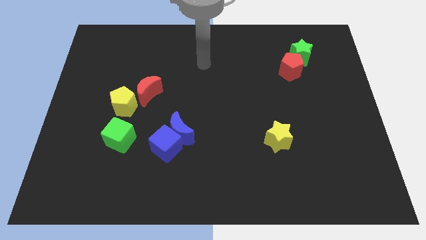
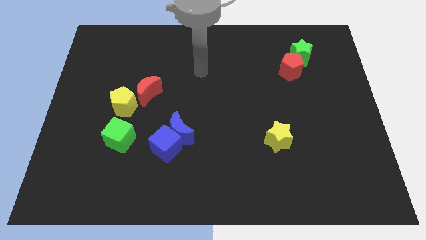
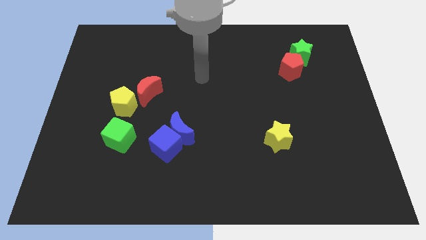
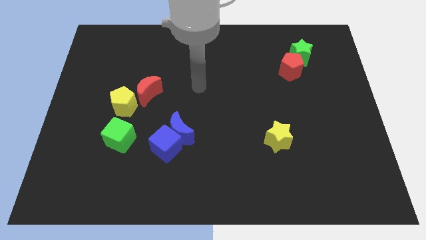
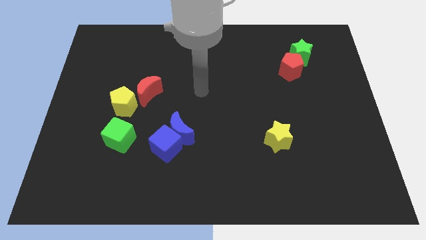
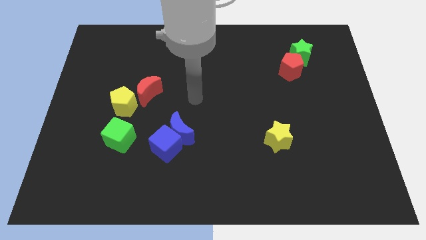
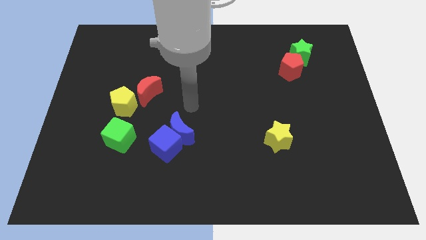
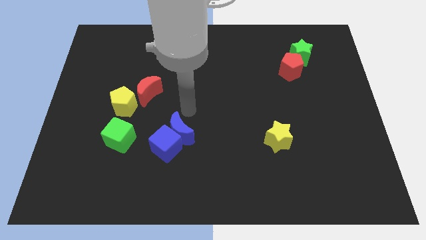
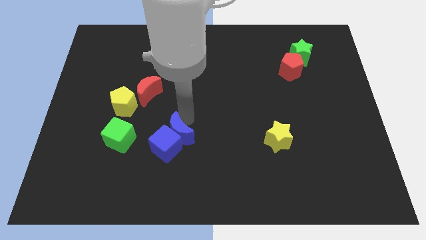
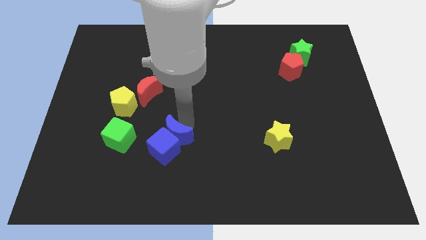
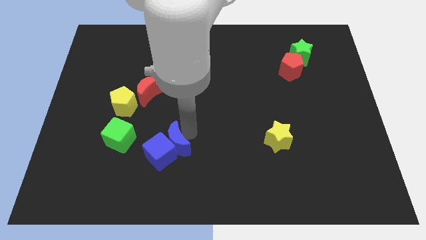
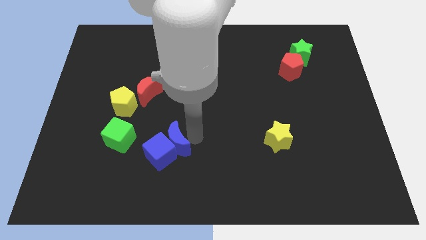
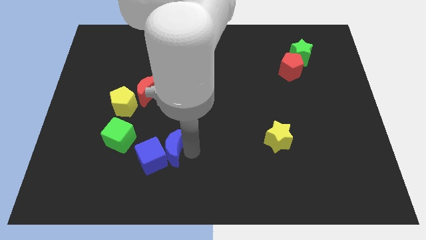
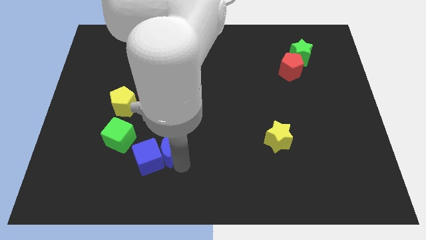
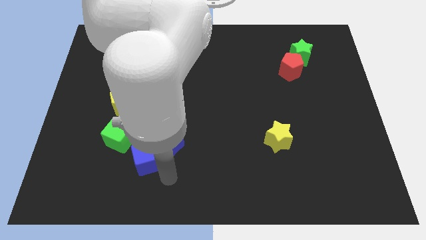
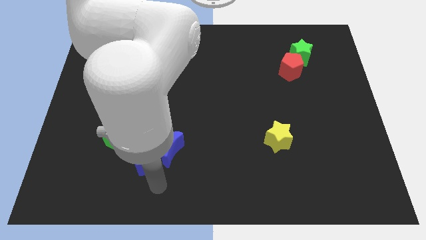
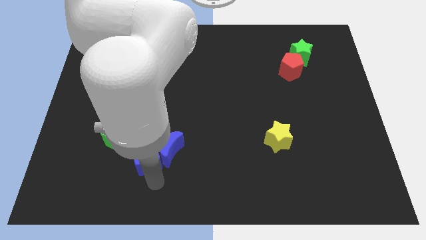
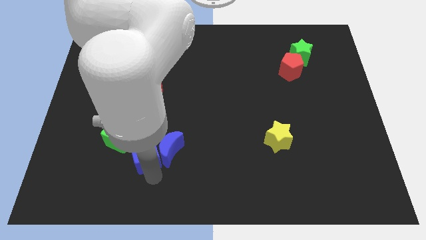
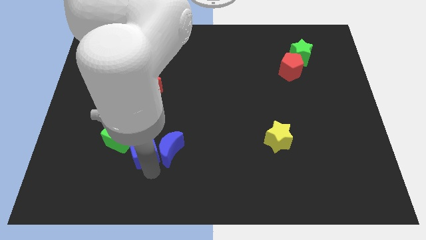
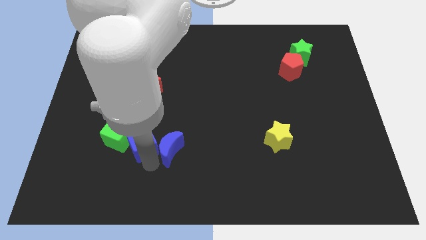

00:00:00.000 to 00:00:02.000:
slide the blue cube close to the green cube

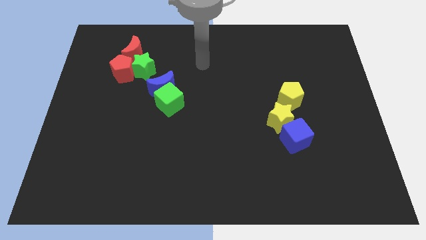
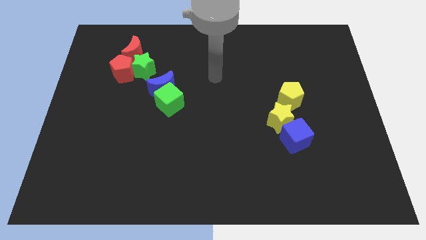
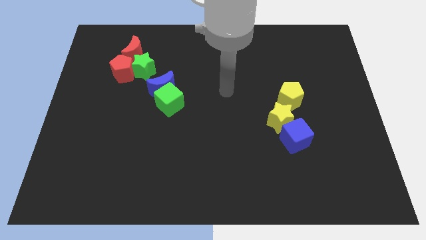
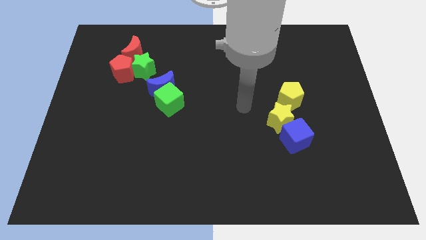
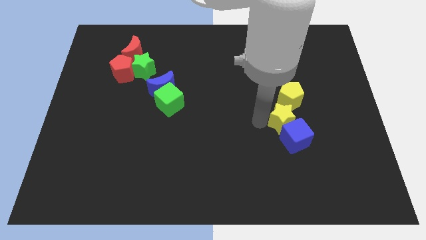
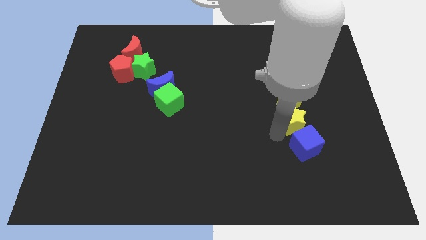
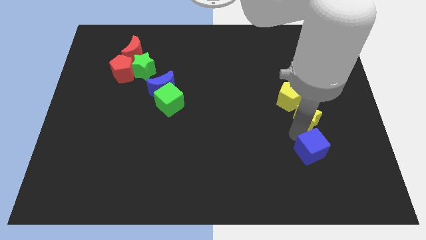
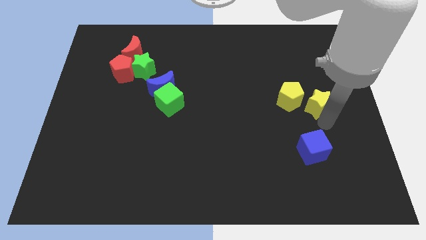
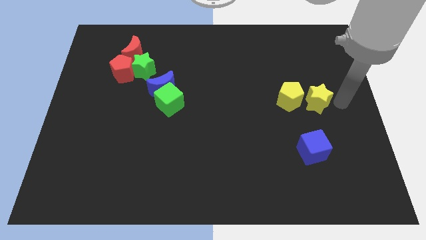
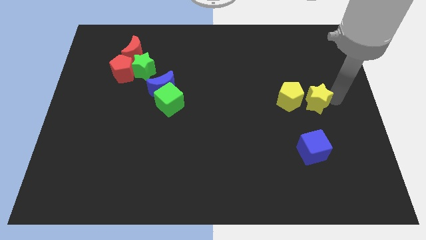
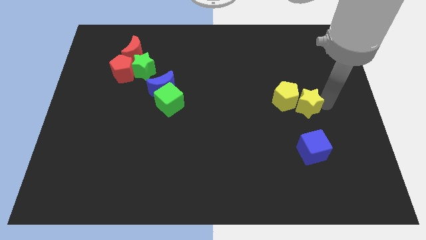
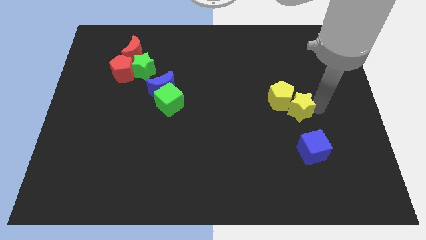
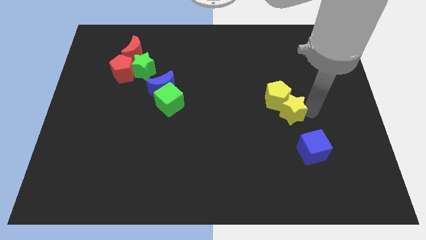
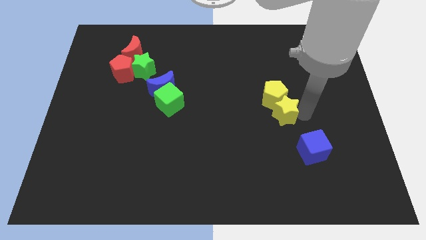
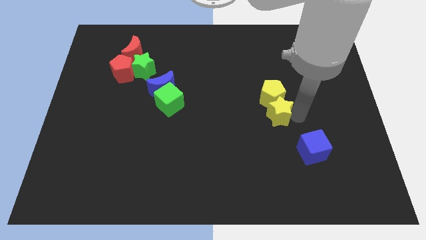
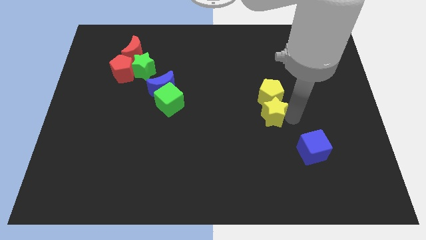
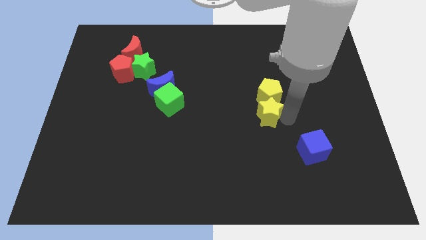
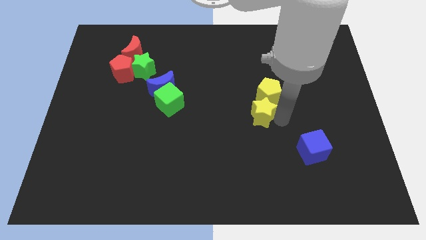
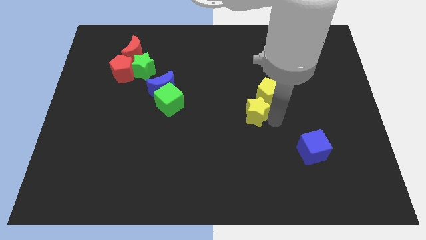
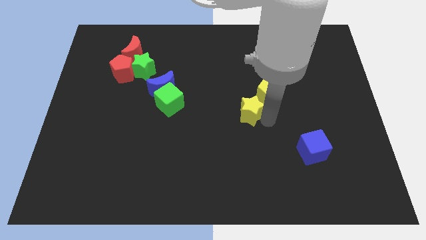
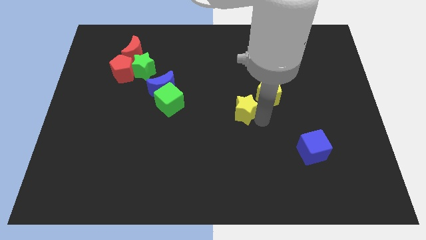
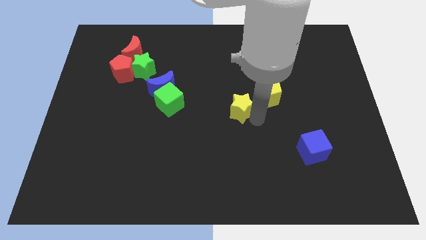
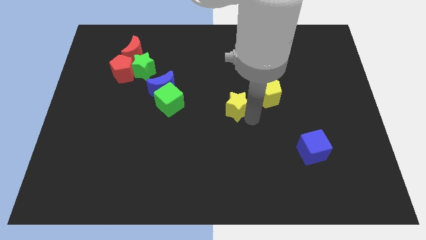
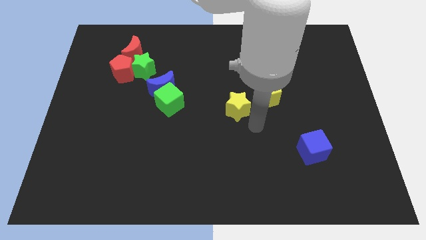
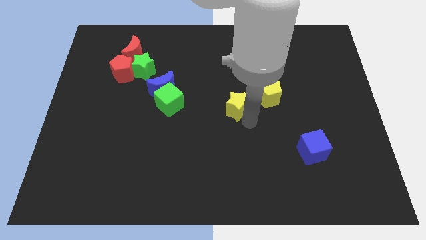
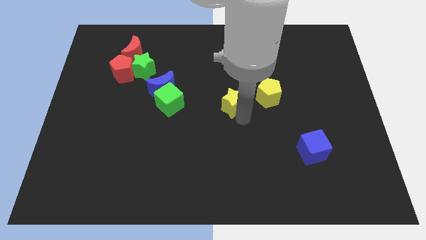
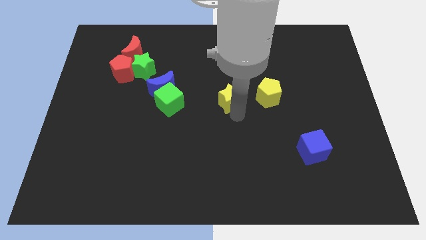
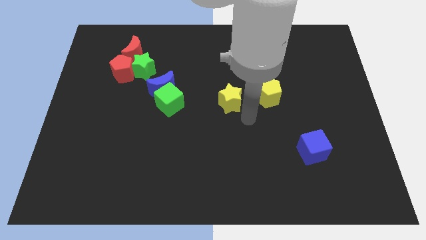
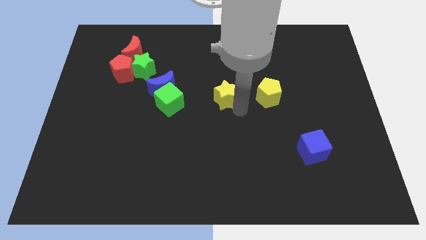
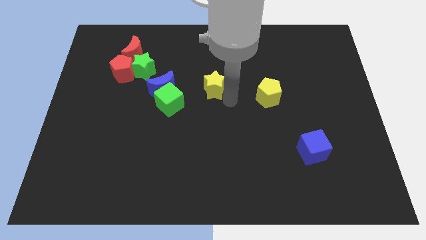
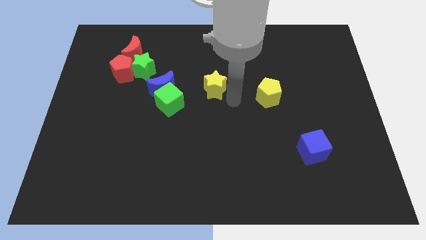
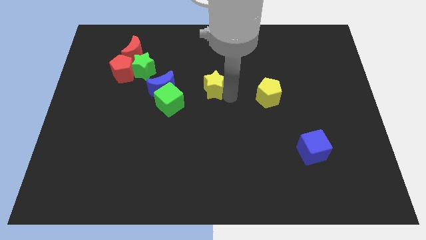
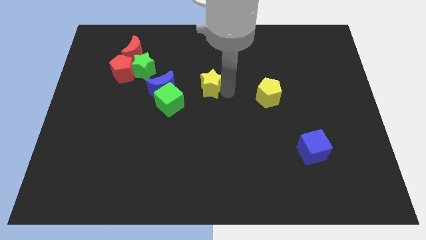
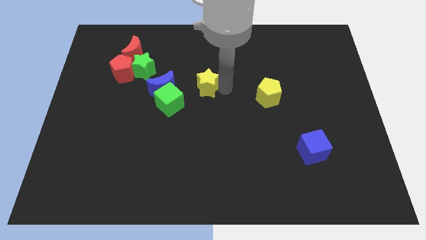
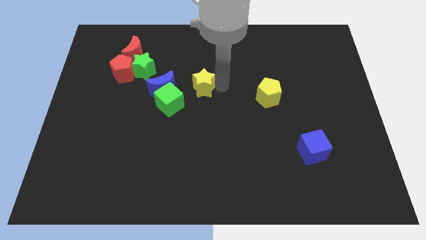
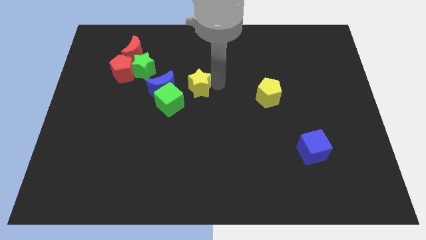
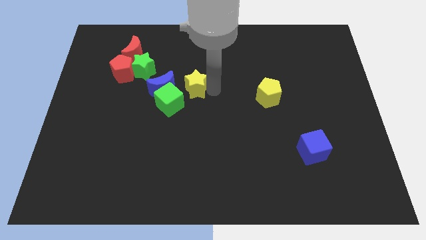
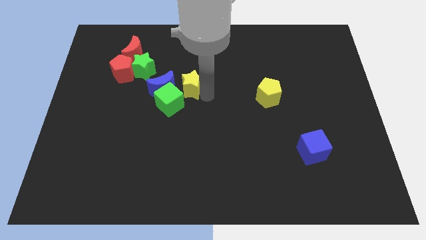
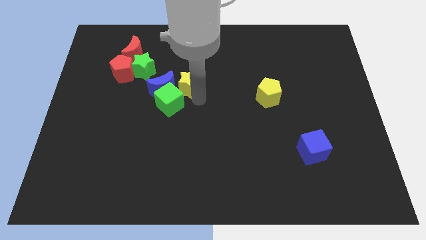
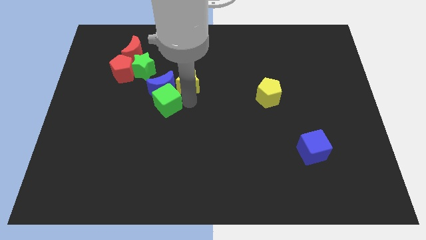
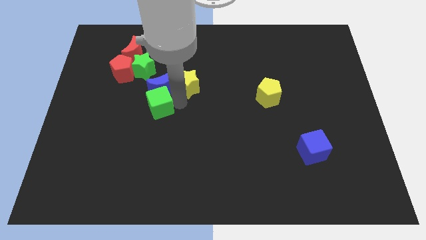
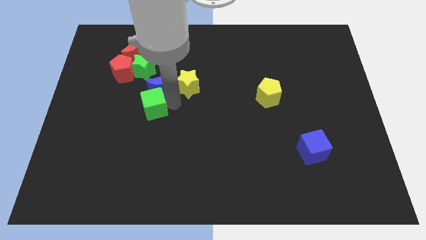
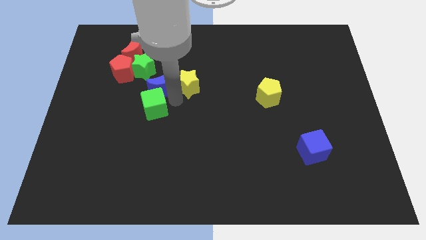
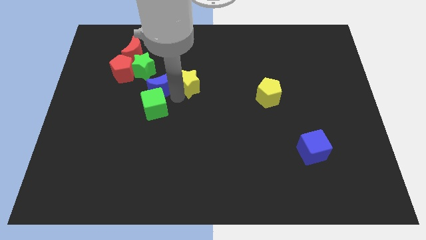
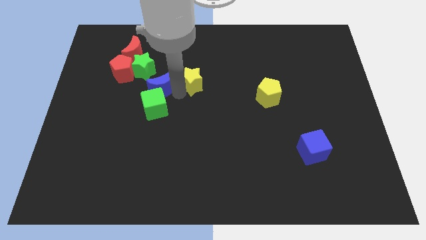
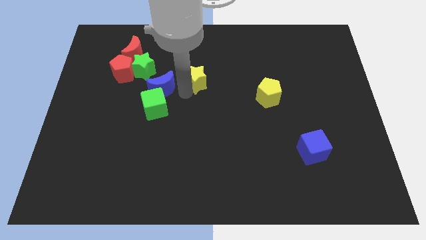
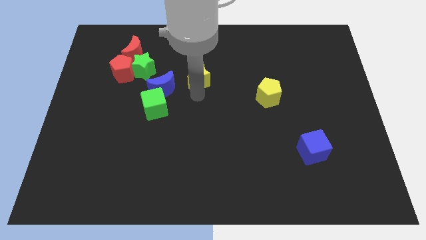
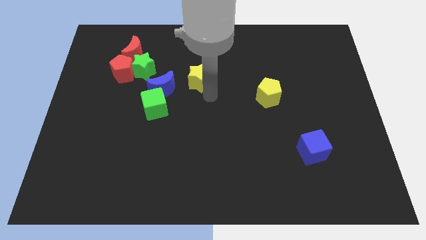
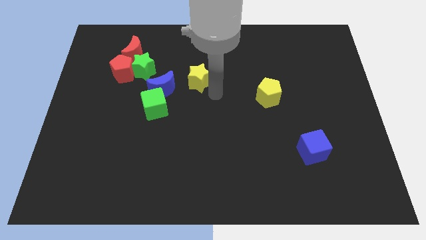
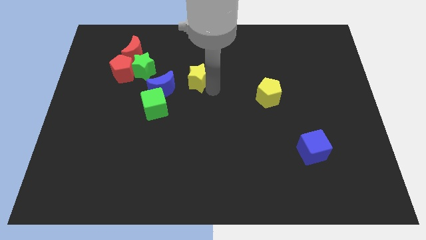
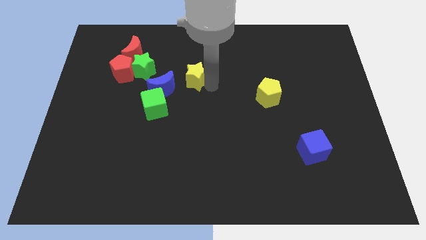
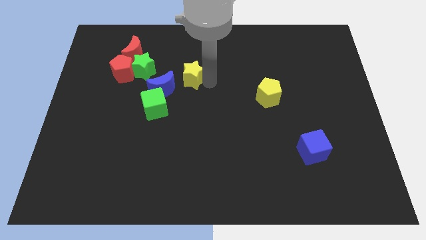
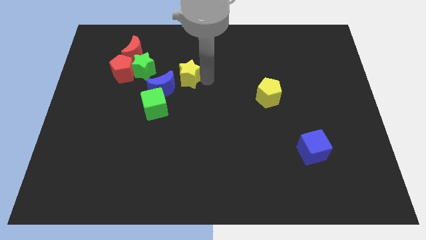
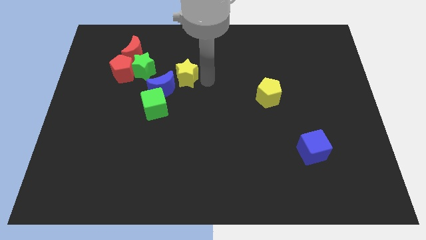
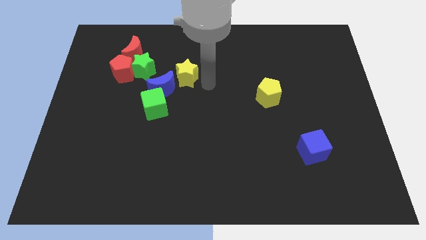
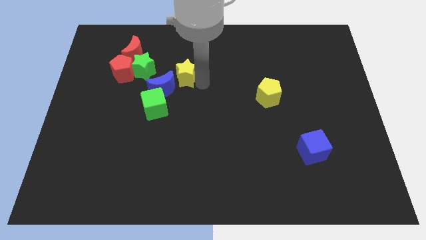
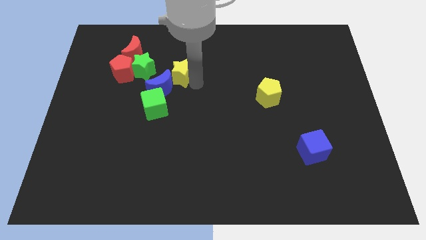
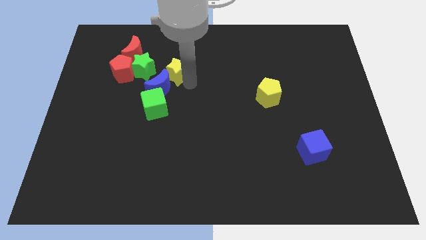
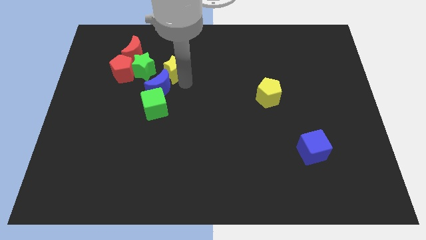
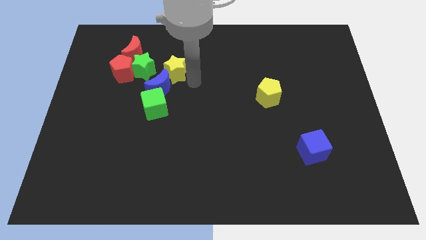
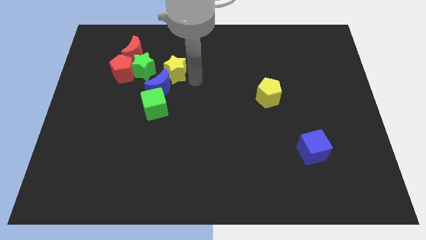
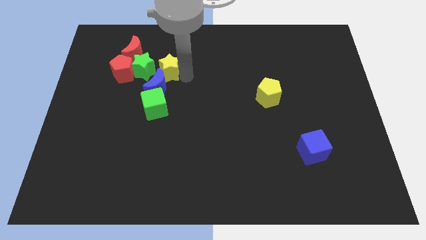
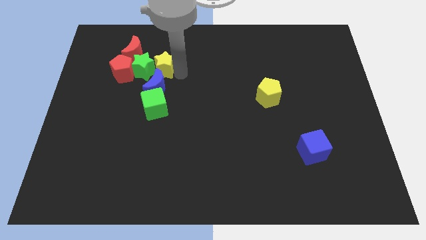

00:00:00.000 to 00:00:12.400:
push the yellow star next to the green star
